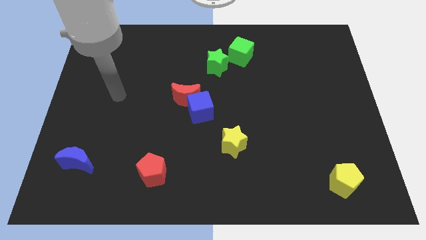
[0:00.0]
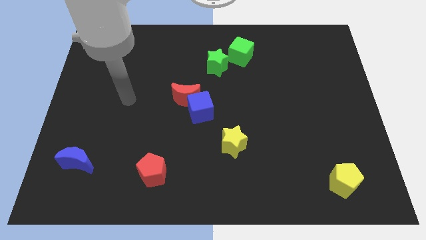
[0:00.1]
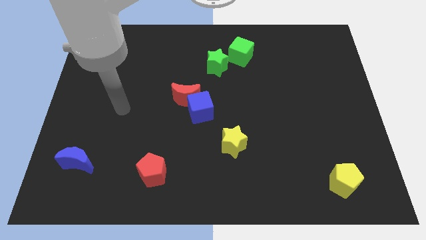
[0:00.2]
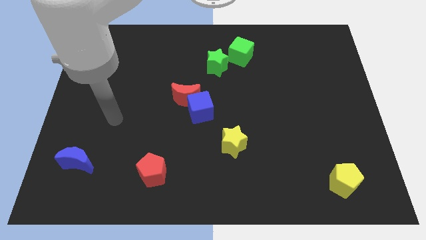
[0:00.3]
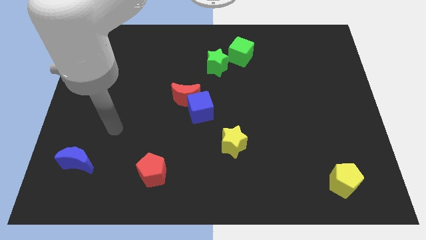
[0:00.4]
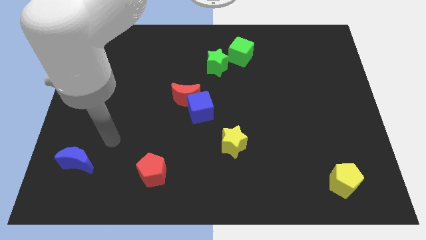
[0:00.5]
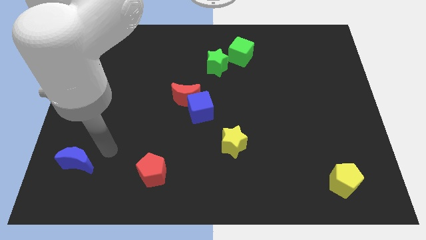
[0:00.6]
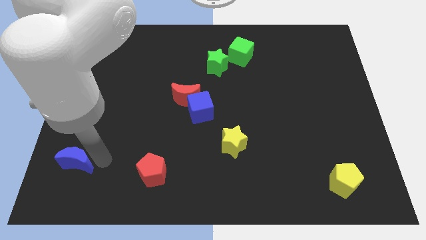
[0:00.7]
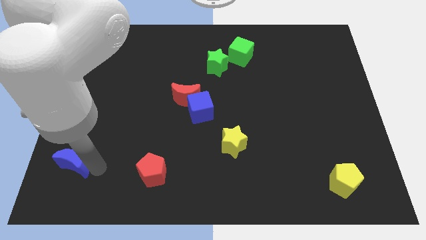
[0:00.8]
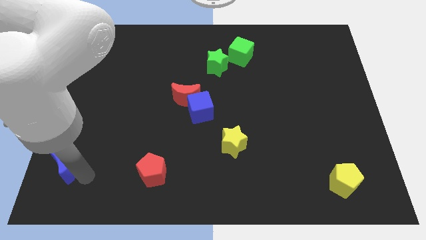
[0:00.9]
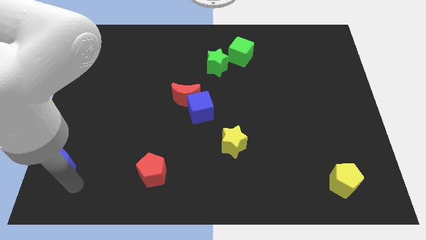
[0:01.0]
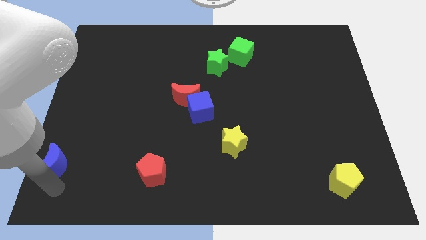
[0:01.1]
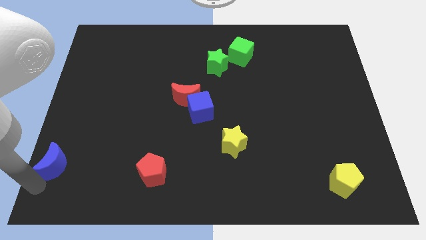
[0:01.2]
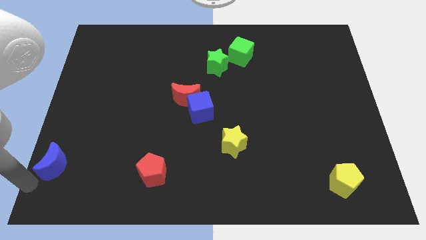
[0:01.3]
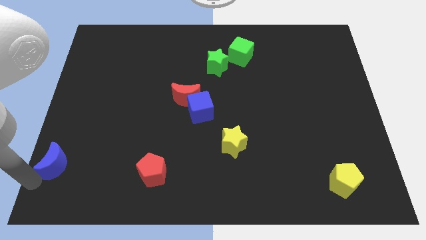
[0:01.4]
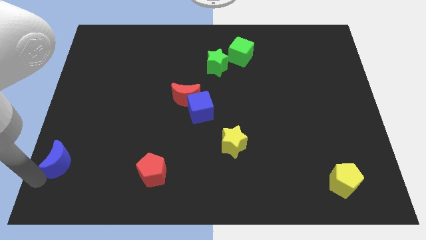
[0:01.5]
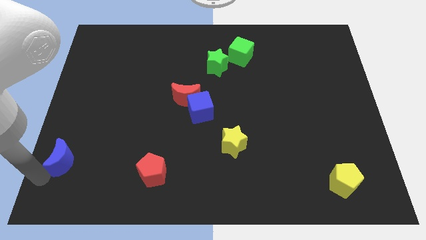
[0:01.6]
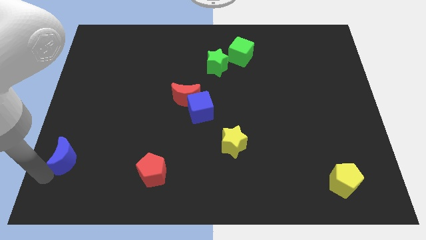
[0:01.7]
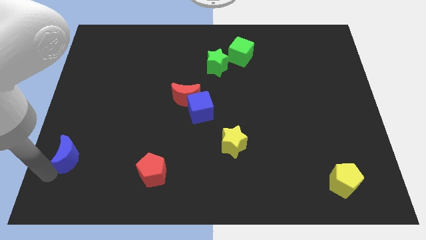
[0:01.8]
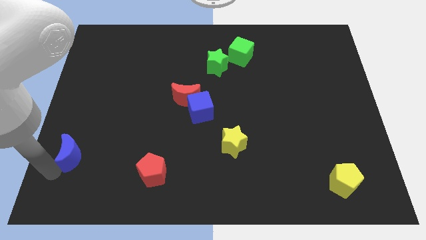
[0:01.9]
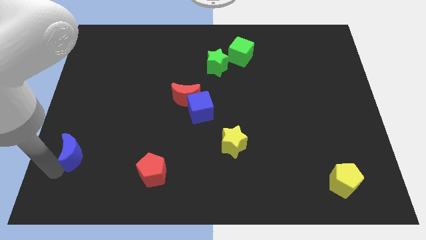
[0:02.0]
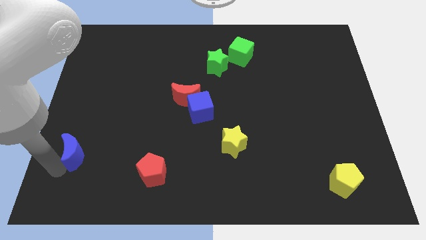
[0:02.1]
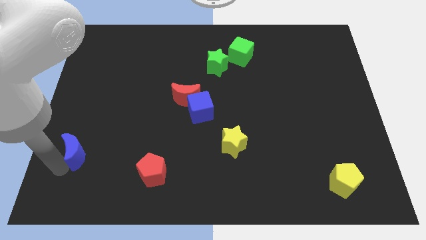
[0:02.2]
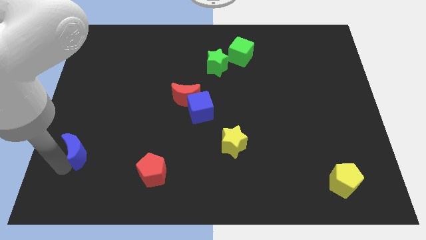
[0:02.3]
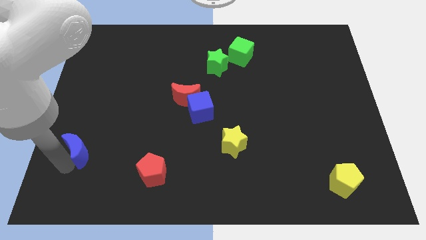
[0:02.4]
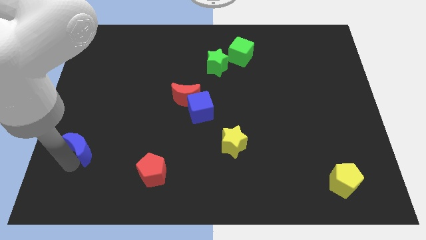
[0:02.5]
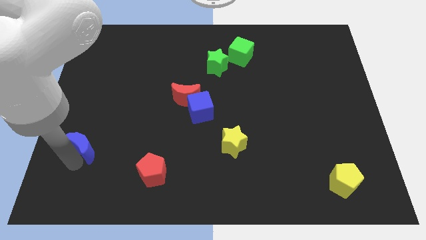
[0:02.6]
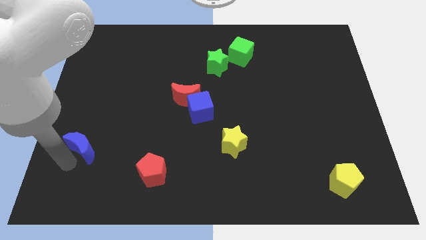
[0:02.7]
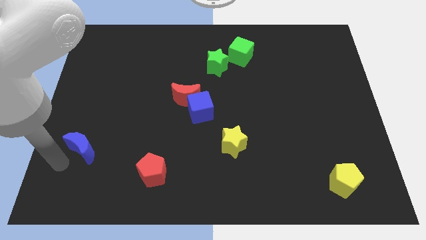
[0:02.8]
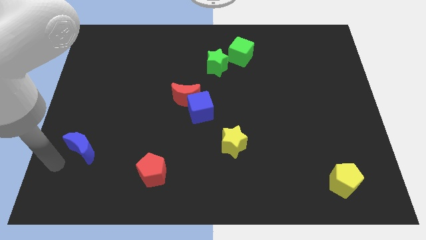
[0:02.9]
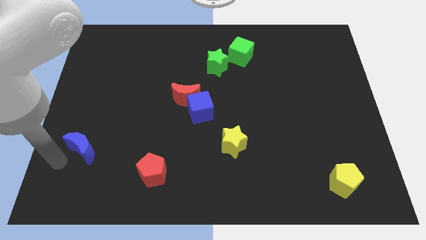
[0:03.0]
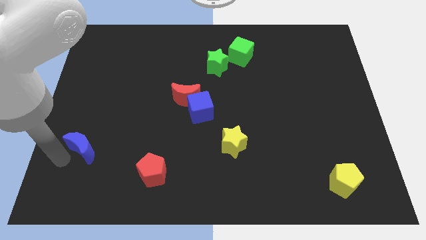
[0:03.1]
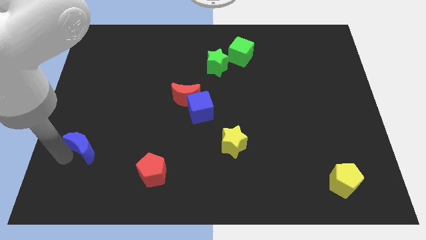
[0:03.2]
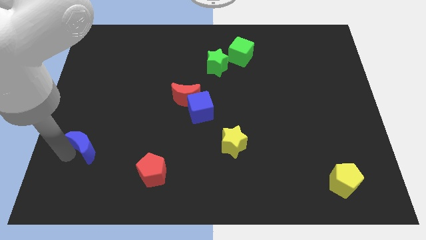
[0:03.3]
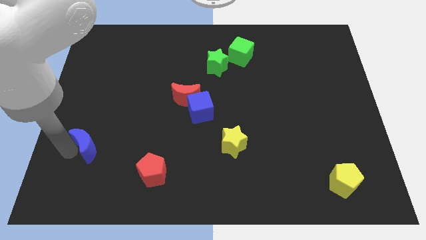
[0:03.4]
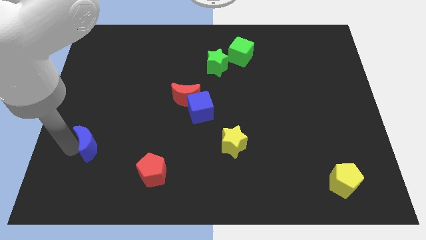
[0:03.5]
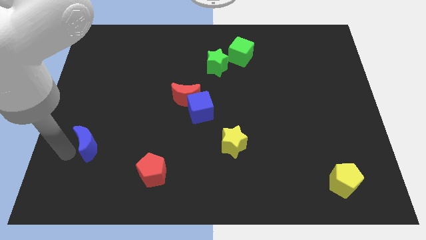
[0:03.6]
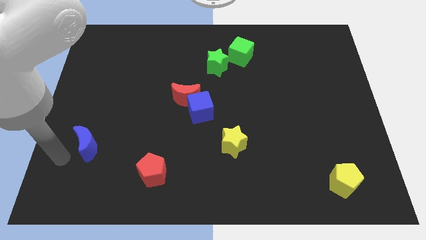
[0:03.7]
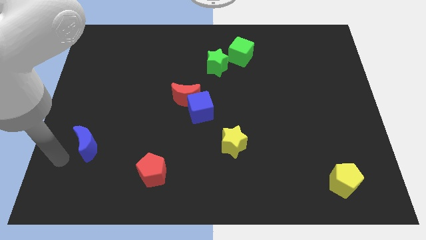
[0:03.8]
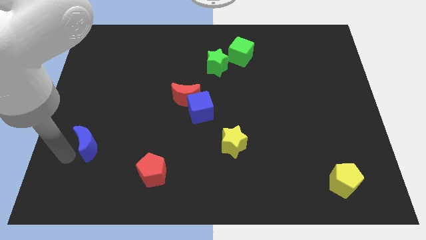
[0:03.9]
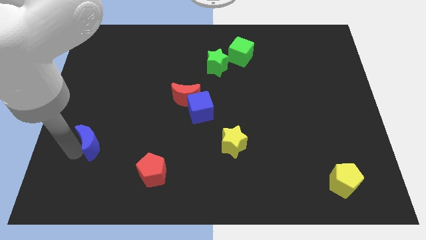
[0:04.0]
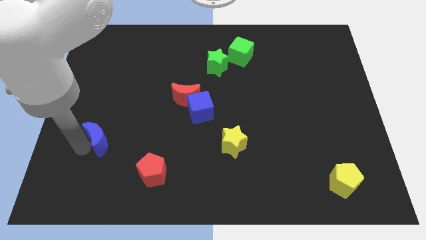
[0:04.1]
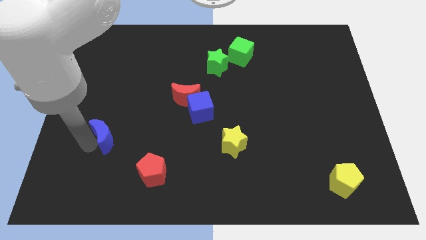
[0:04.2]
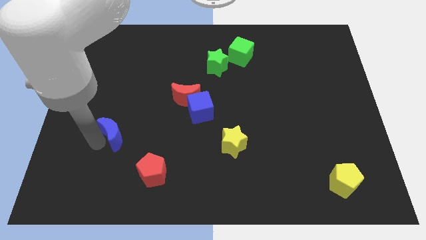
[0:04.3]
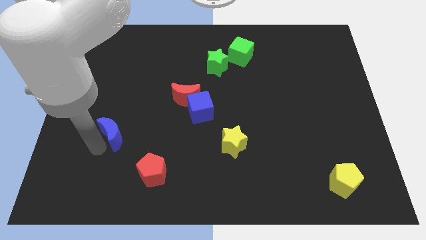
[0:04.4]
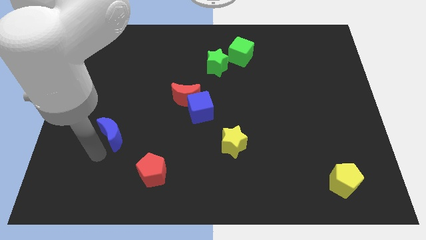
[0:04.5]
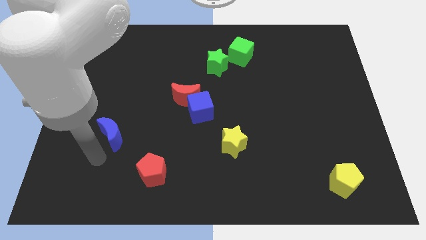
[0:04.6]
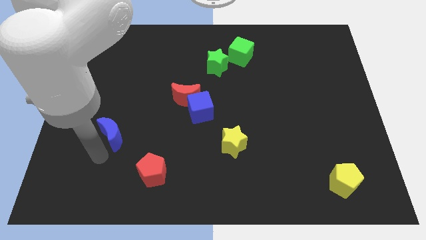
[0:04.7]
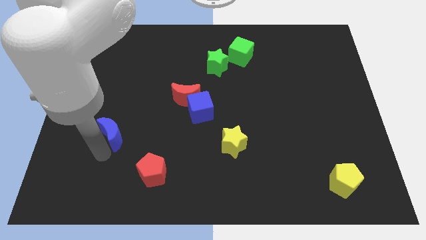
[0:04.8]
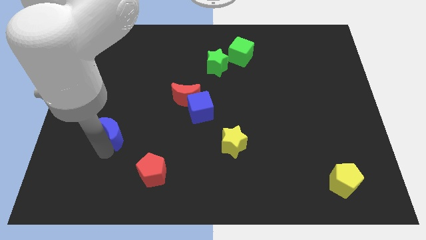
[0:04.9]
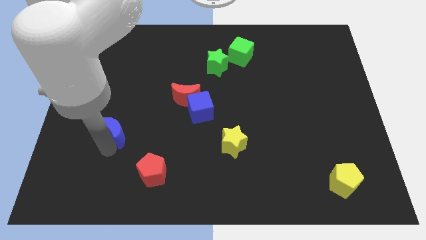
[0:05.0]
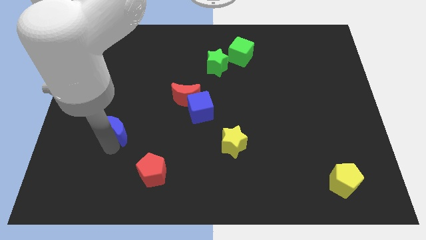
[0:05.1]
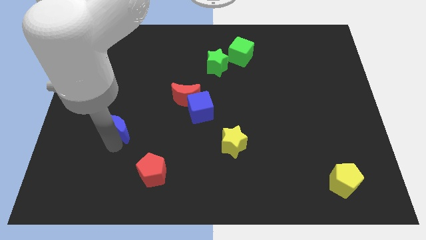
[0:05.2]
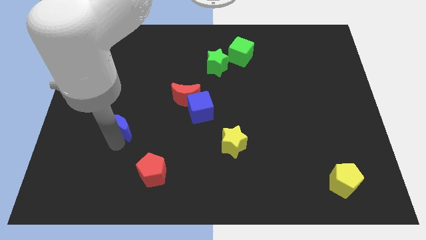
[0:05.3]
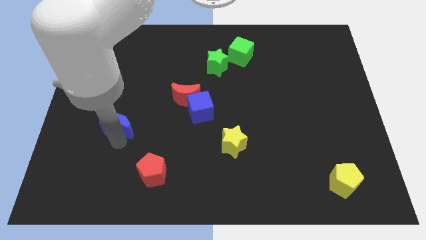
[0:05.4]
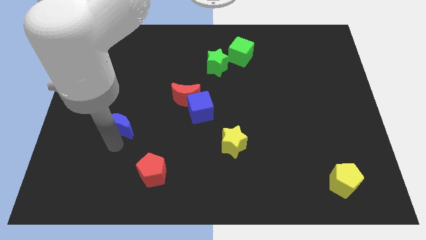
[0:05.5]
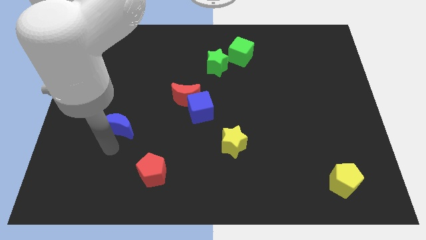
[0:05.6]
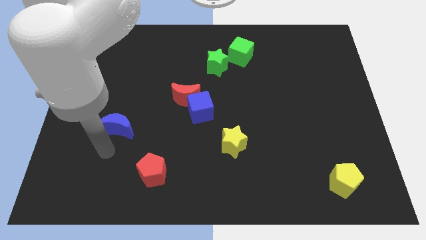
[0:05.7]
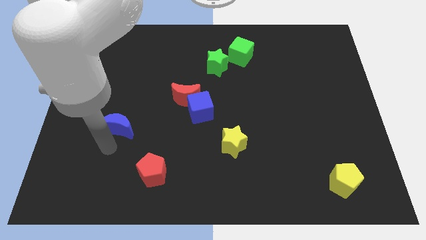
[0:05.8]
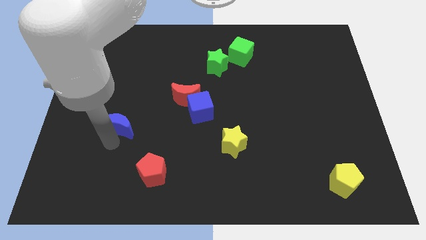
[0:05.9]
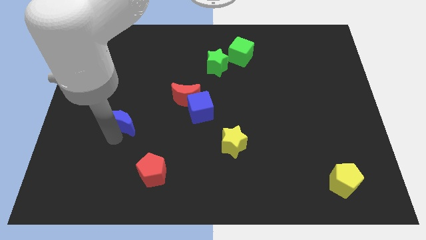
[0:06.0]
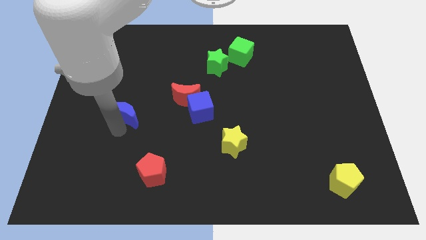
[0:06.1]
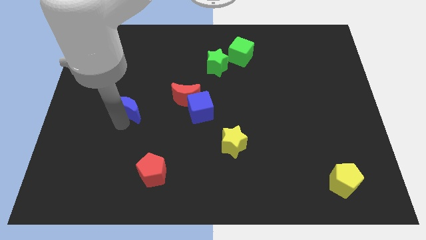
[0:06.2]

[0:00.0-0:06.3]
move the blue moon to the left side of the red moon

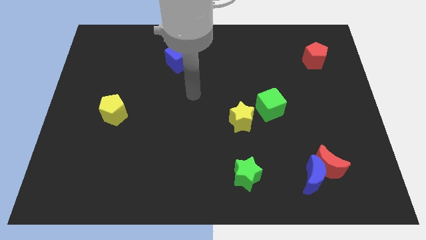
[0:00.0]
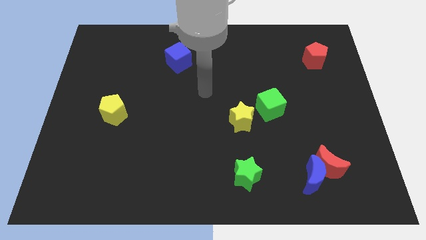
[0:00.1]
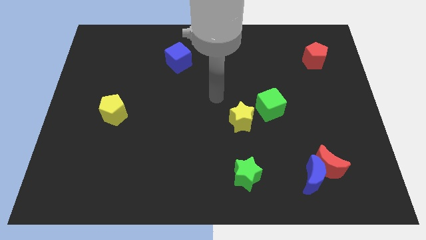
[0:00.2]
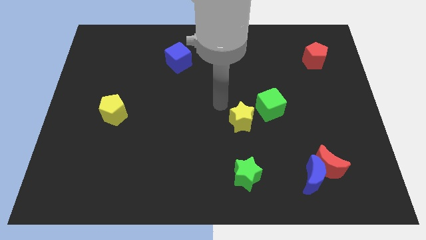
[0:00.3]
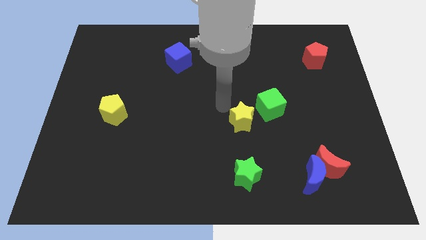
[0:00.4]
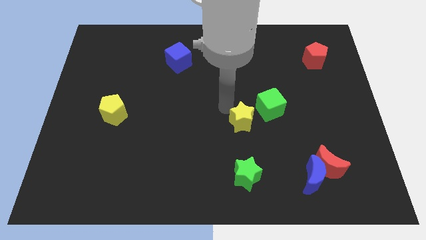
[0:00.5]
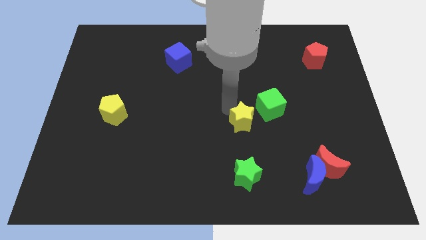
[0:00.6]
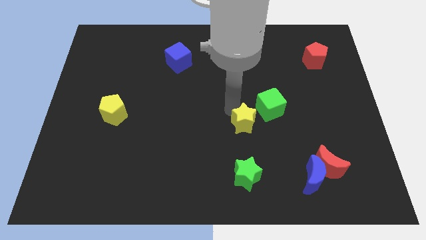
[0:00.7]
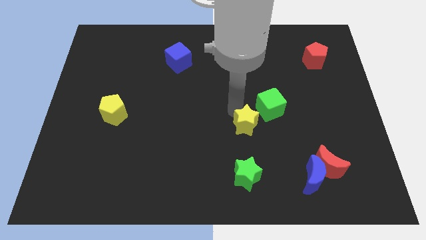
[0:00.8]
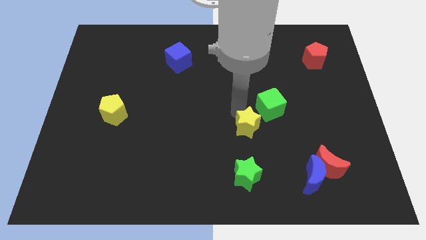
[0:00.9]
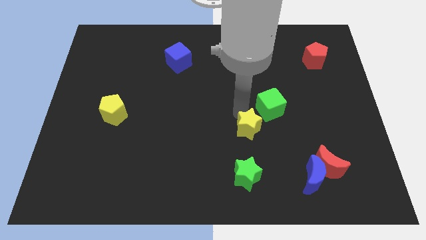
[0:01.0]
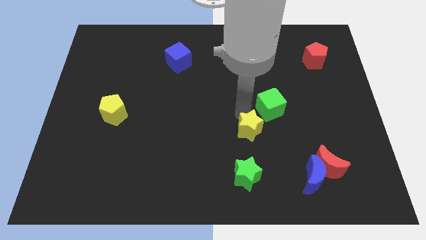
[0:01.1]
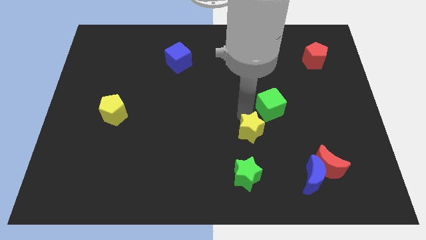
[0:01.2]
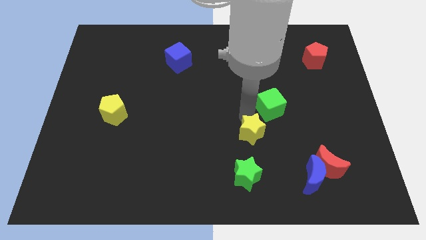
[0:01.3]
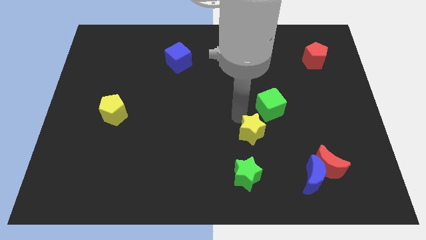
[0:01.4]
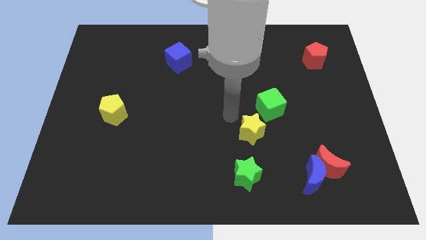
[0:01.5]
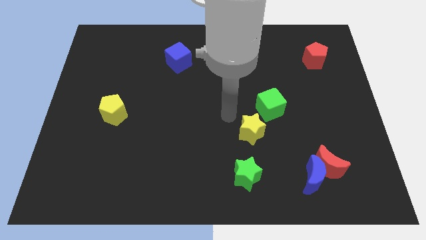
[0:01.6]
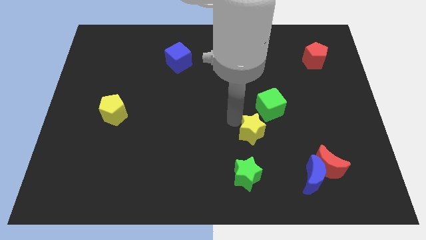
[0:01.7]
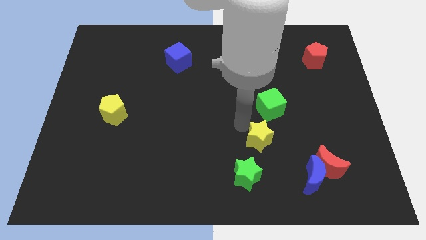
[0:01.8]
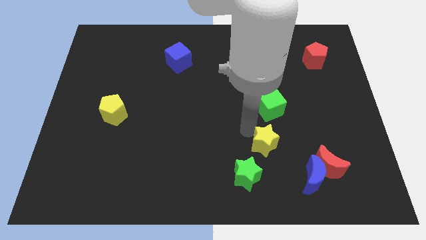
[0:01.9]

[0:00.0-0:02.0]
slide the yellow star to the top left side of the blue moon
